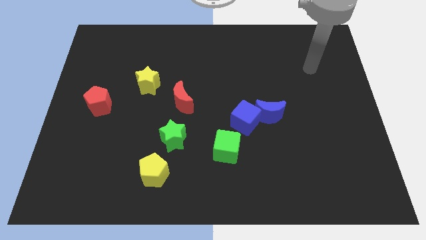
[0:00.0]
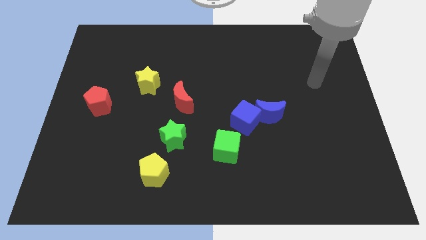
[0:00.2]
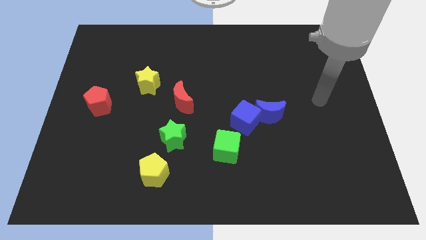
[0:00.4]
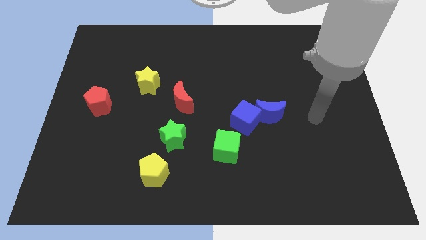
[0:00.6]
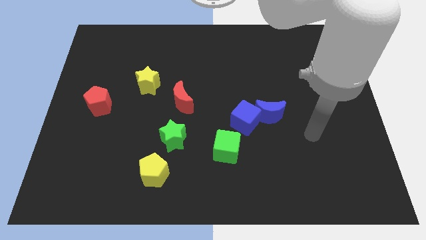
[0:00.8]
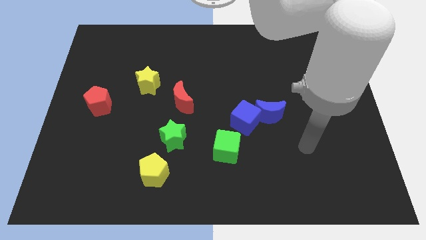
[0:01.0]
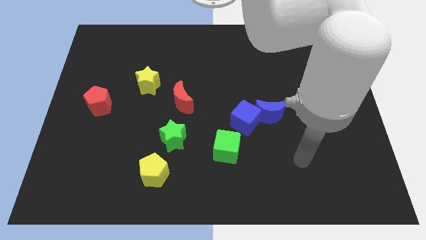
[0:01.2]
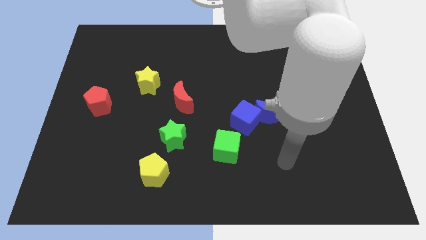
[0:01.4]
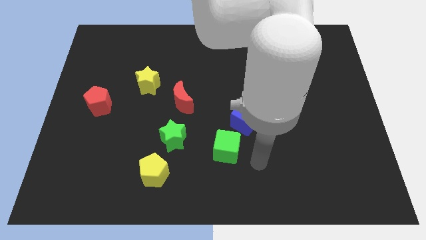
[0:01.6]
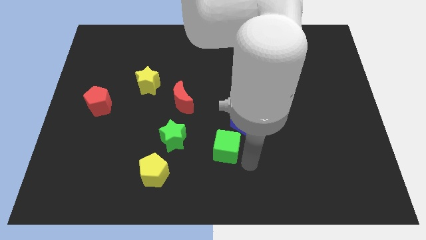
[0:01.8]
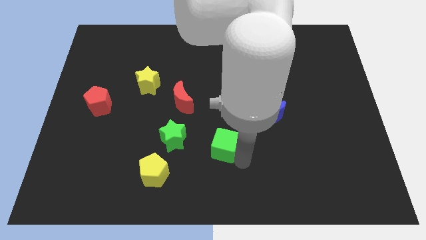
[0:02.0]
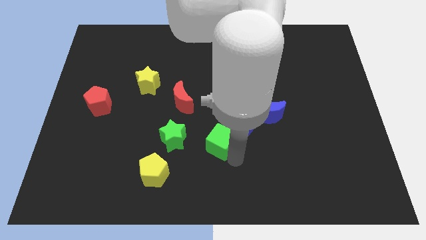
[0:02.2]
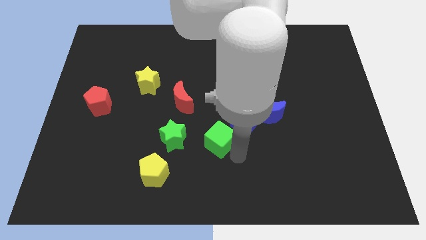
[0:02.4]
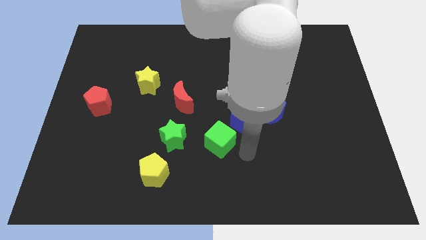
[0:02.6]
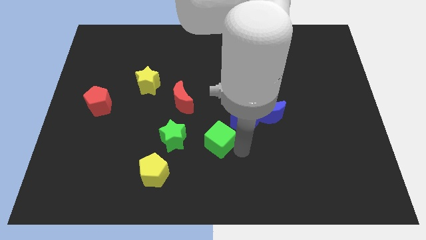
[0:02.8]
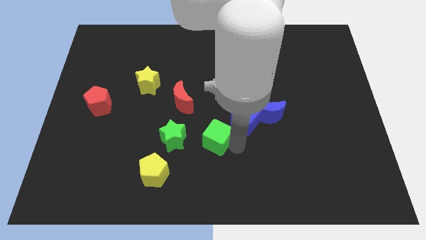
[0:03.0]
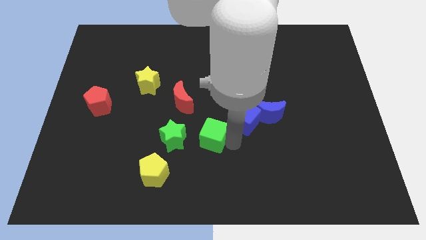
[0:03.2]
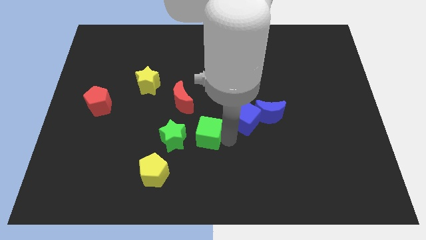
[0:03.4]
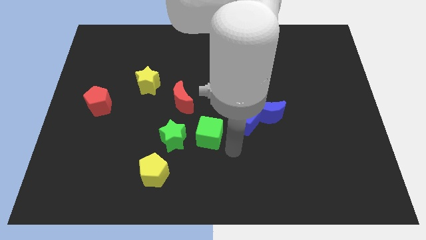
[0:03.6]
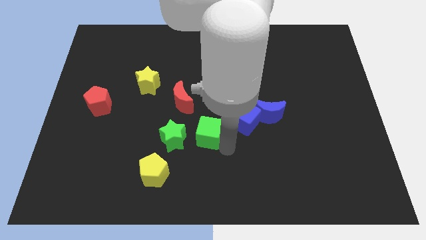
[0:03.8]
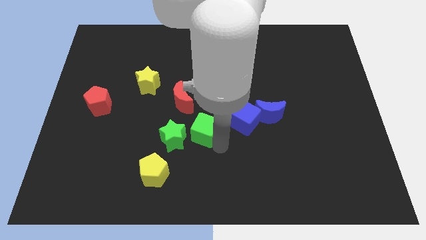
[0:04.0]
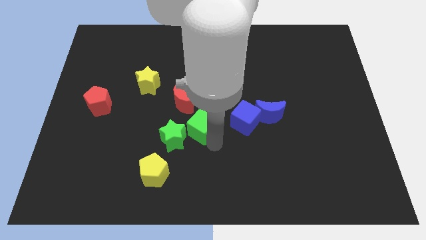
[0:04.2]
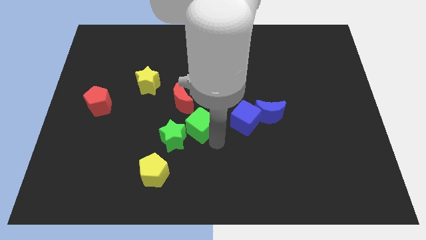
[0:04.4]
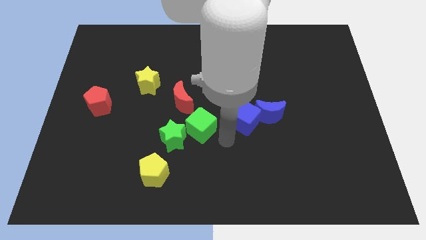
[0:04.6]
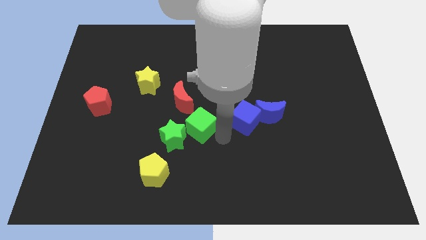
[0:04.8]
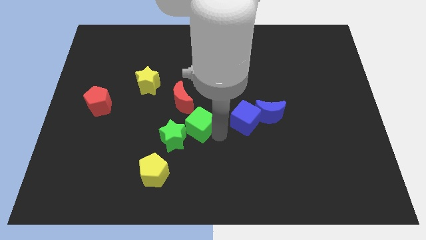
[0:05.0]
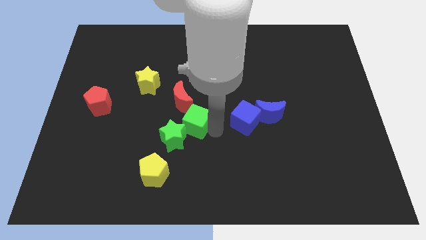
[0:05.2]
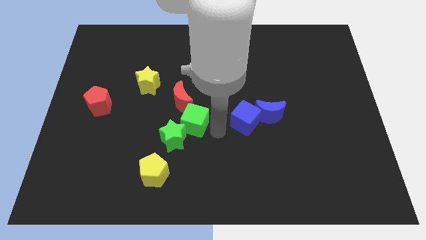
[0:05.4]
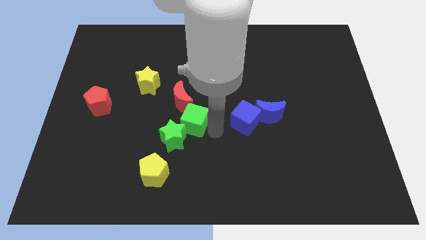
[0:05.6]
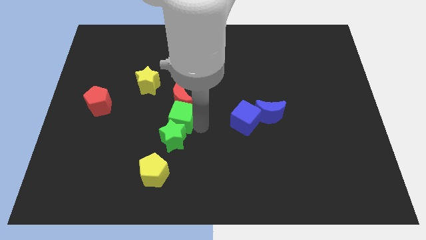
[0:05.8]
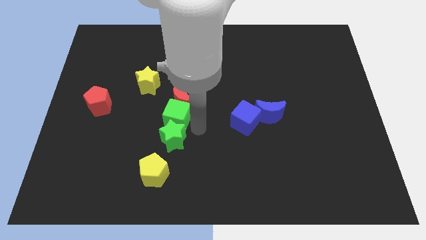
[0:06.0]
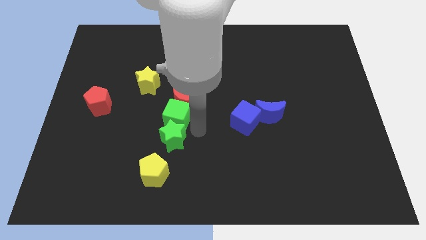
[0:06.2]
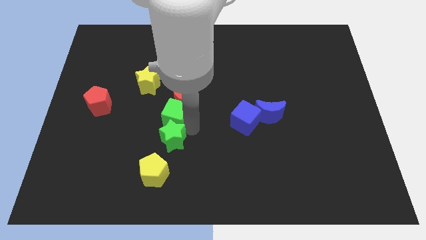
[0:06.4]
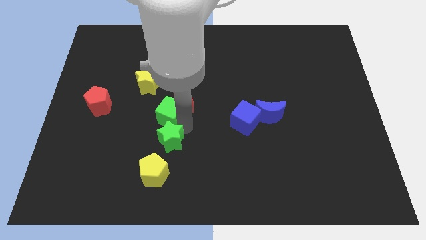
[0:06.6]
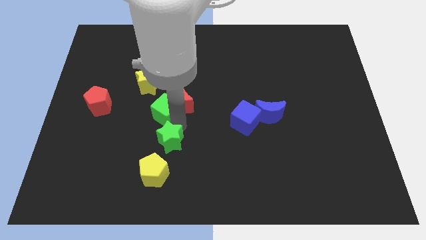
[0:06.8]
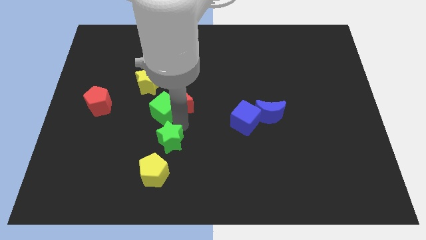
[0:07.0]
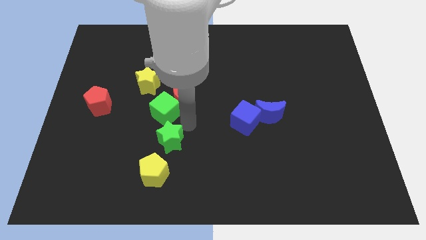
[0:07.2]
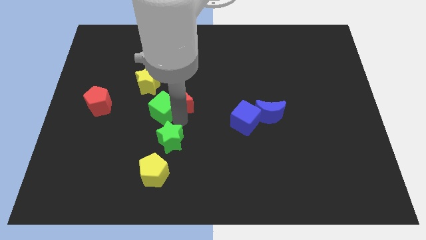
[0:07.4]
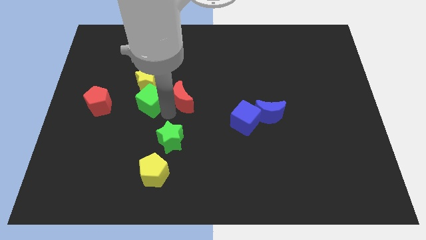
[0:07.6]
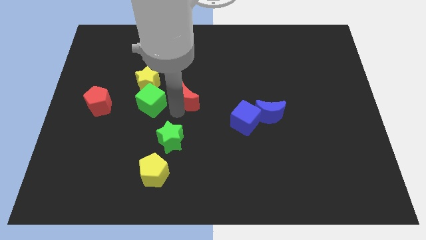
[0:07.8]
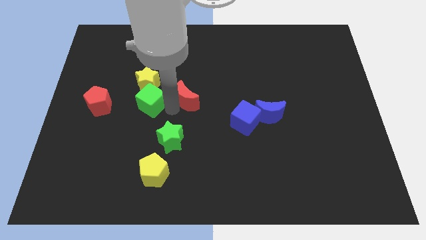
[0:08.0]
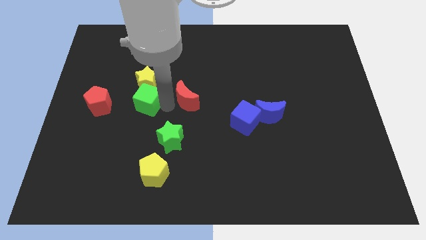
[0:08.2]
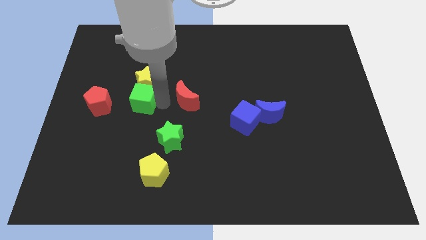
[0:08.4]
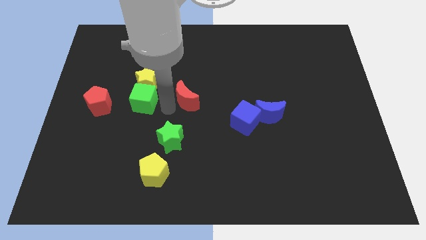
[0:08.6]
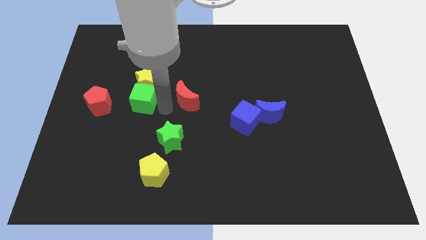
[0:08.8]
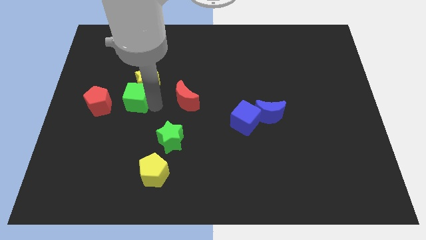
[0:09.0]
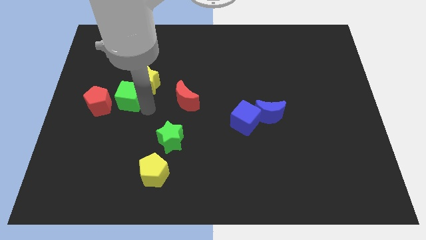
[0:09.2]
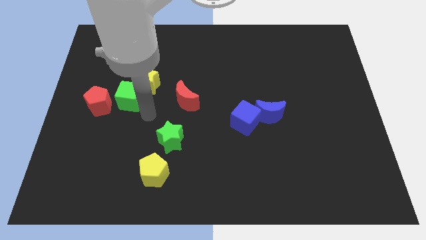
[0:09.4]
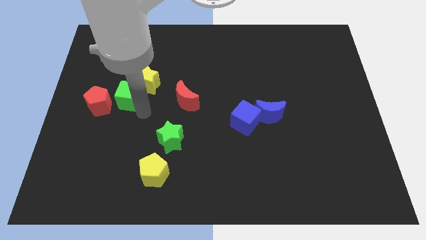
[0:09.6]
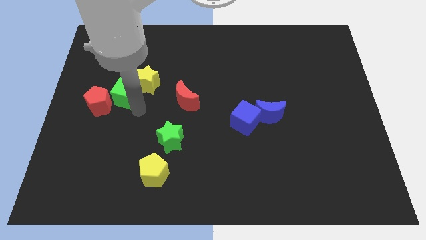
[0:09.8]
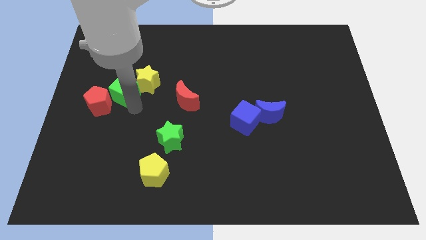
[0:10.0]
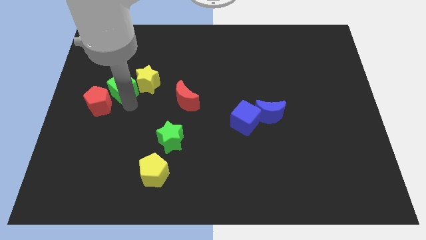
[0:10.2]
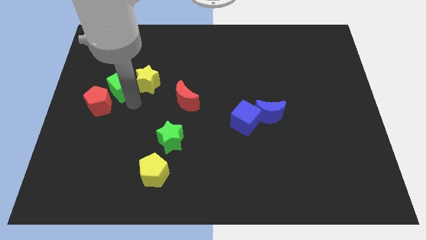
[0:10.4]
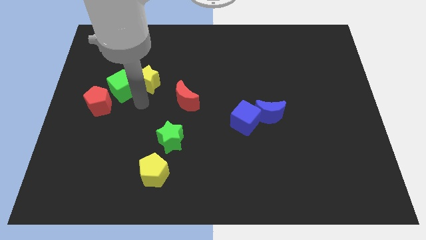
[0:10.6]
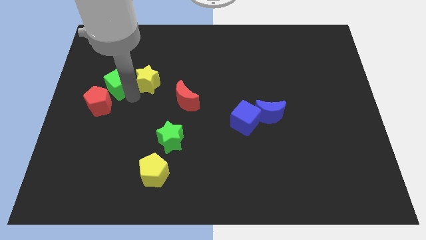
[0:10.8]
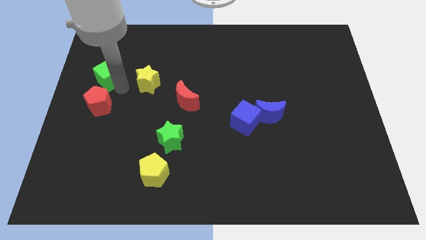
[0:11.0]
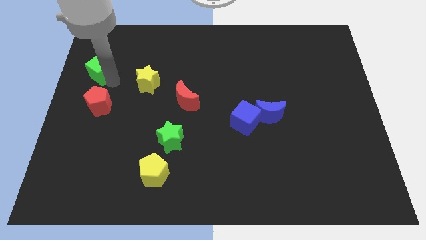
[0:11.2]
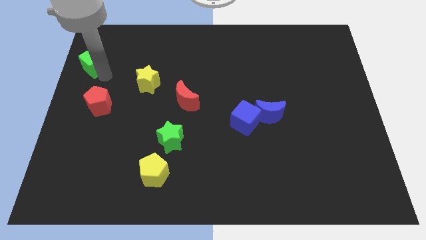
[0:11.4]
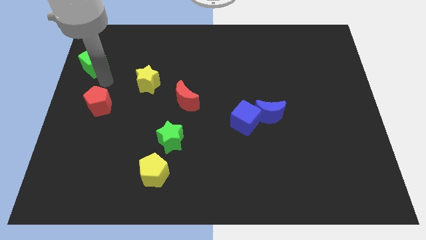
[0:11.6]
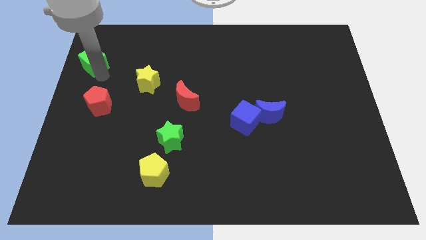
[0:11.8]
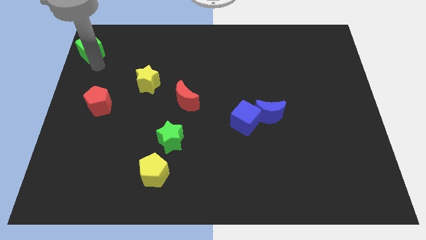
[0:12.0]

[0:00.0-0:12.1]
push the green cube to the top left corner

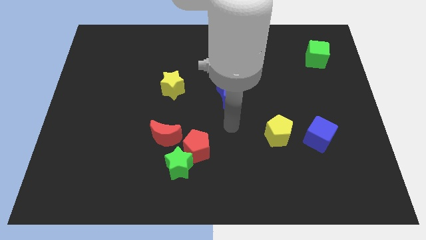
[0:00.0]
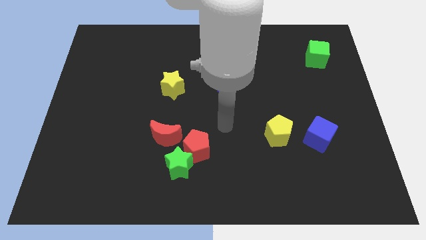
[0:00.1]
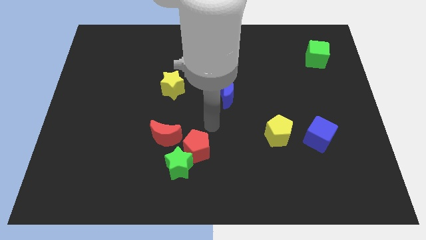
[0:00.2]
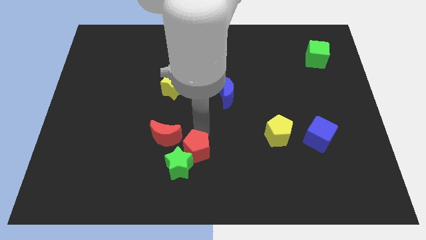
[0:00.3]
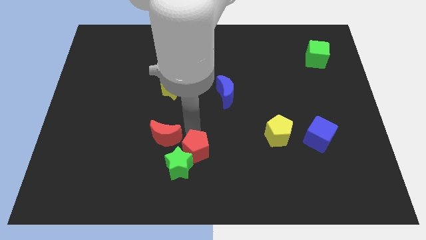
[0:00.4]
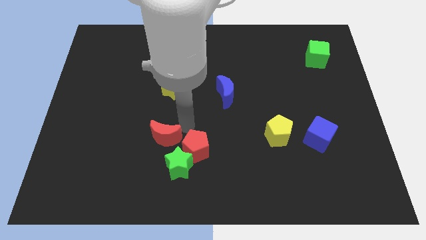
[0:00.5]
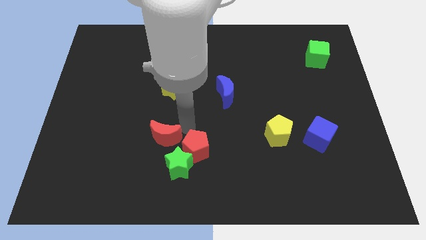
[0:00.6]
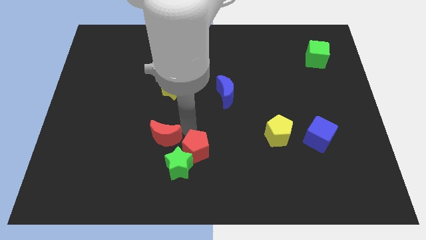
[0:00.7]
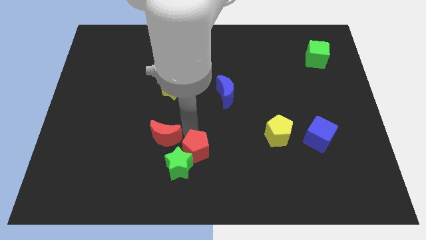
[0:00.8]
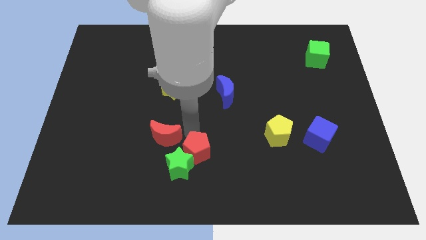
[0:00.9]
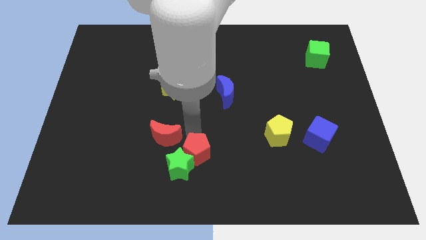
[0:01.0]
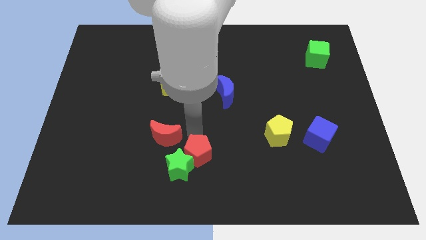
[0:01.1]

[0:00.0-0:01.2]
push the red pentagon to the bottom
